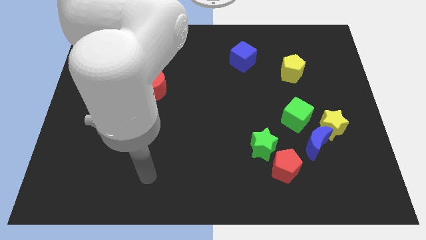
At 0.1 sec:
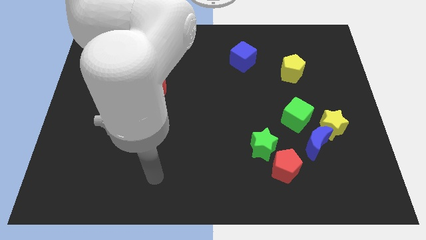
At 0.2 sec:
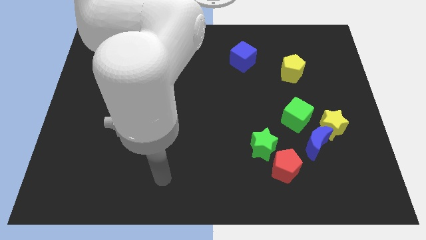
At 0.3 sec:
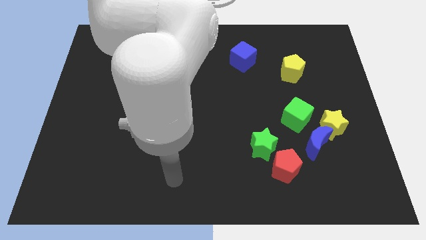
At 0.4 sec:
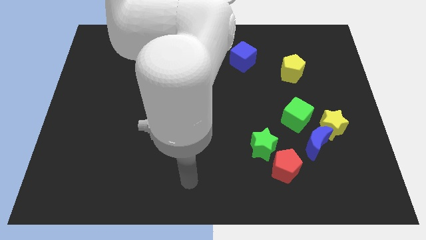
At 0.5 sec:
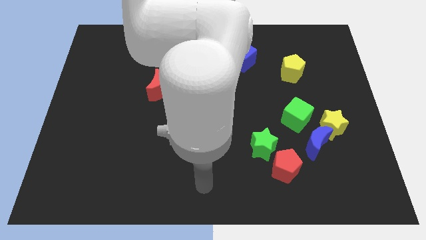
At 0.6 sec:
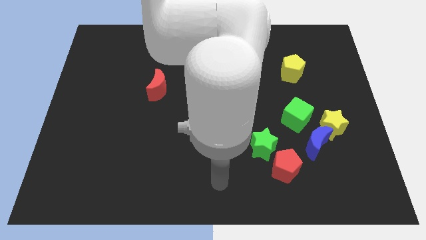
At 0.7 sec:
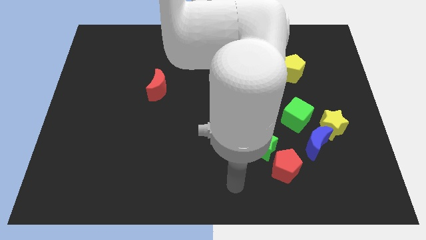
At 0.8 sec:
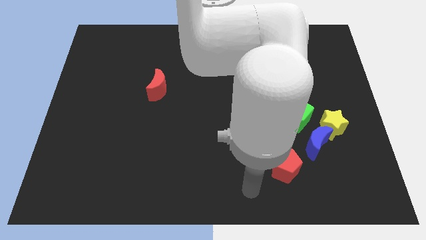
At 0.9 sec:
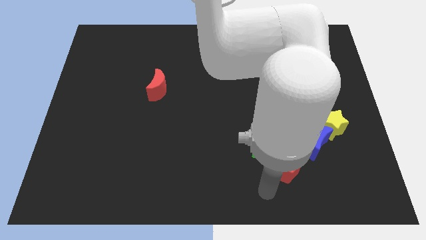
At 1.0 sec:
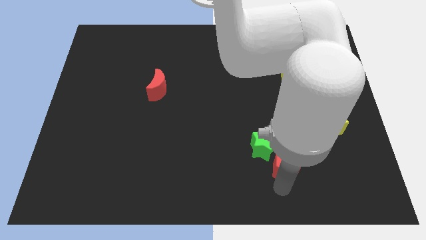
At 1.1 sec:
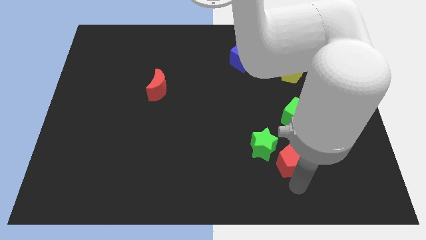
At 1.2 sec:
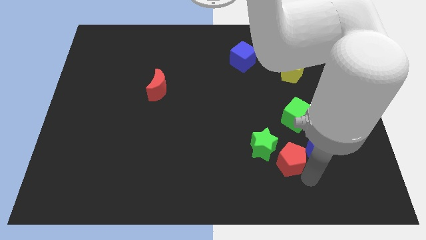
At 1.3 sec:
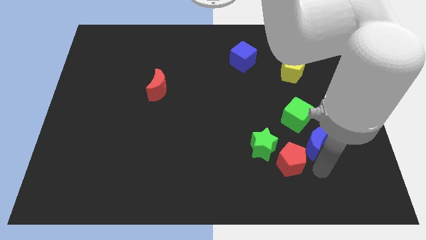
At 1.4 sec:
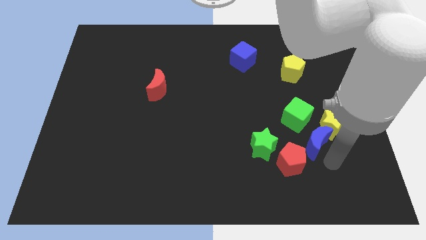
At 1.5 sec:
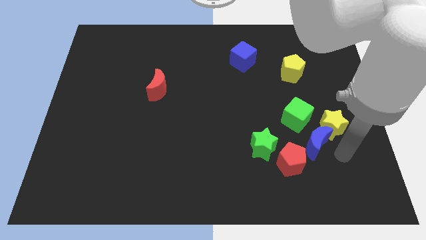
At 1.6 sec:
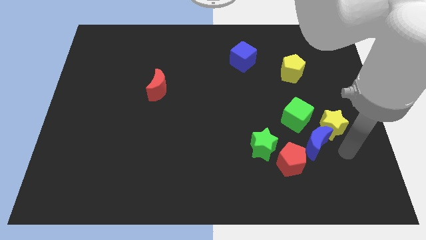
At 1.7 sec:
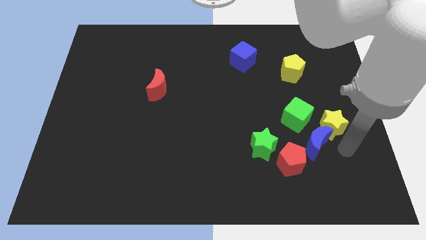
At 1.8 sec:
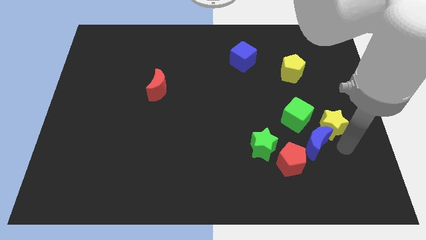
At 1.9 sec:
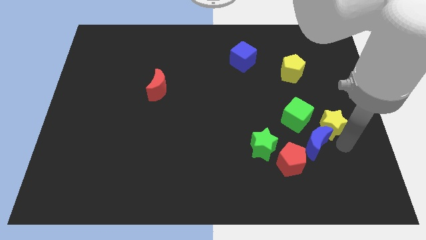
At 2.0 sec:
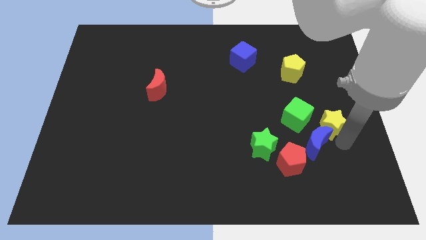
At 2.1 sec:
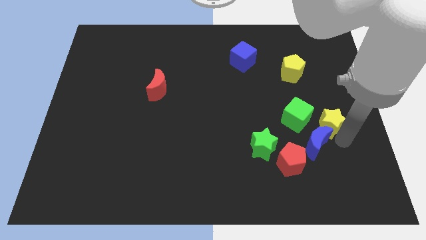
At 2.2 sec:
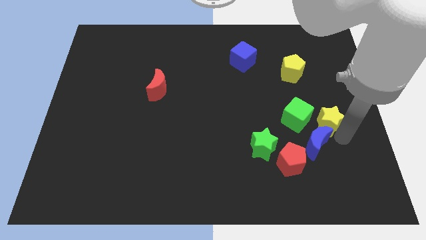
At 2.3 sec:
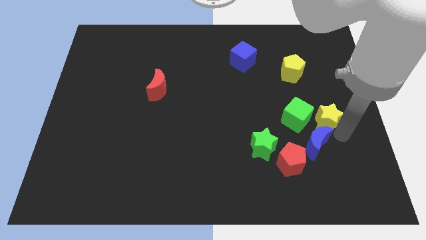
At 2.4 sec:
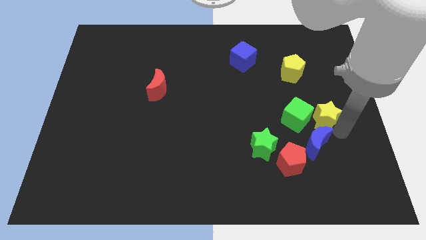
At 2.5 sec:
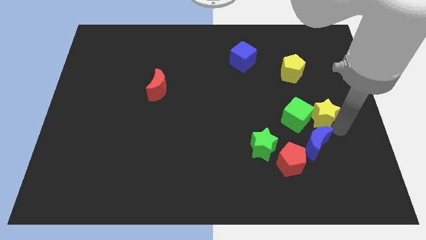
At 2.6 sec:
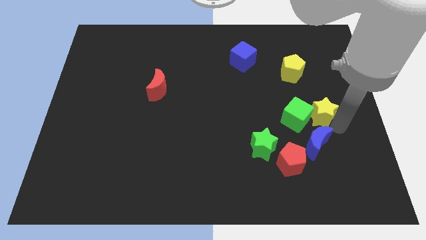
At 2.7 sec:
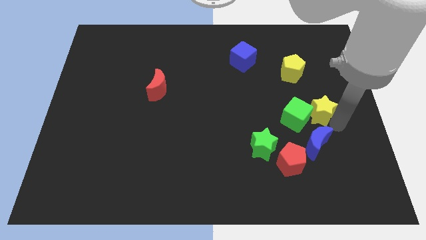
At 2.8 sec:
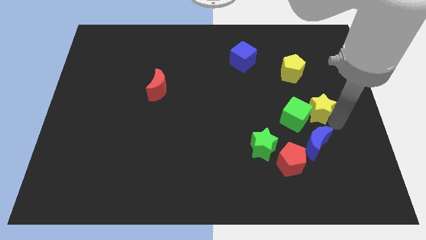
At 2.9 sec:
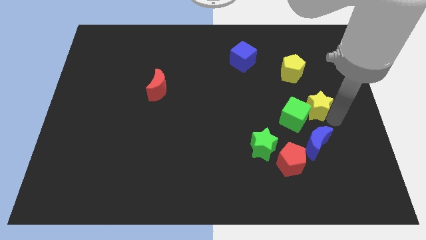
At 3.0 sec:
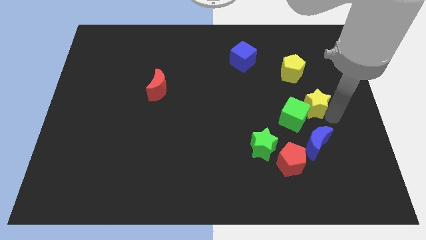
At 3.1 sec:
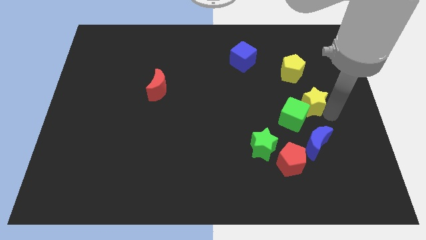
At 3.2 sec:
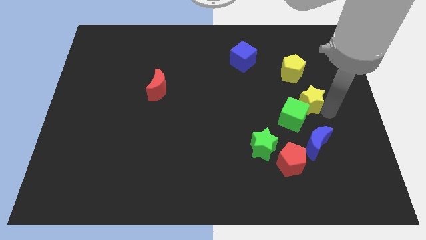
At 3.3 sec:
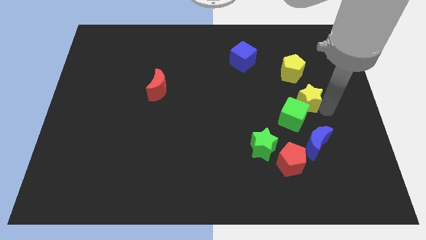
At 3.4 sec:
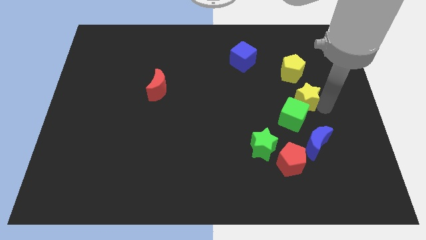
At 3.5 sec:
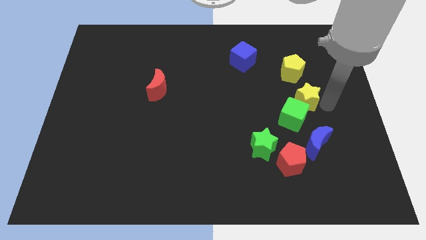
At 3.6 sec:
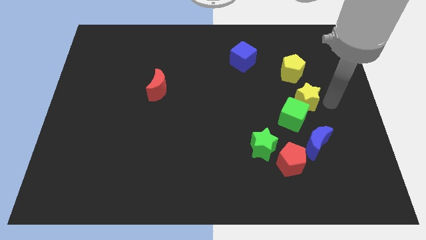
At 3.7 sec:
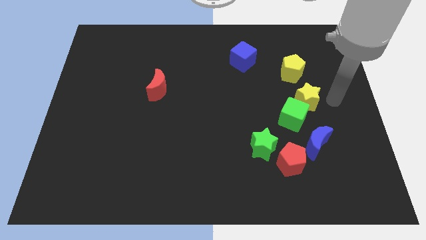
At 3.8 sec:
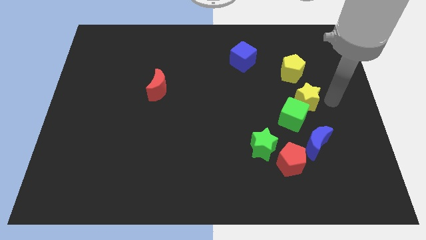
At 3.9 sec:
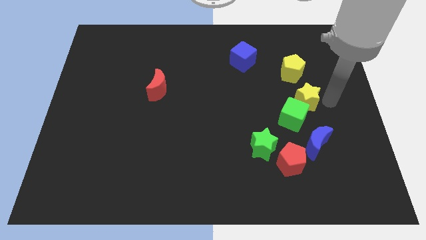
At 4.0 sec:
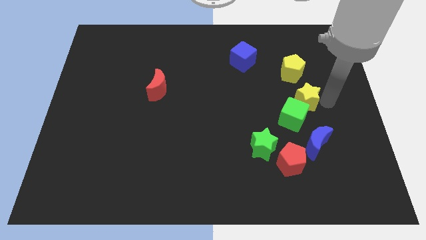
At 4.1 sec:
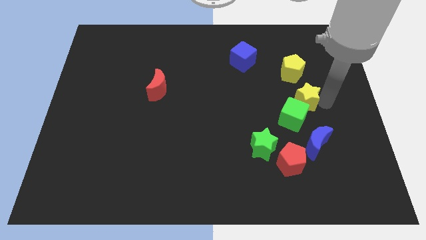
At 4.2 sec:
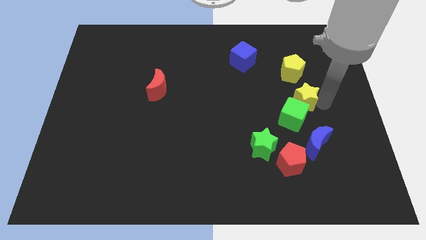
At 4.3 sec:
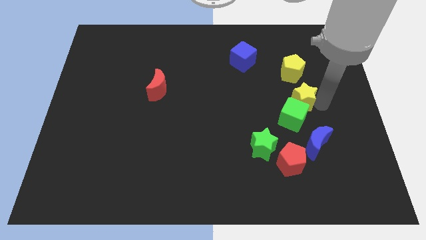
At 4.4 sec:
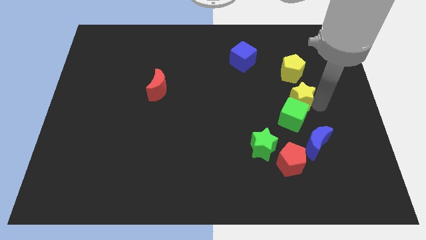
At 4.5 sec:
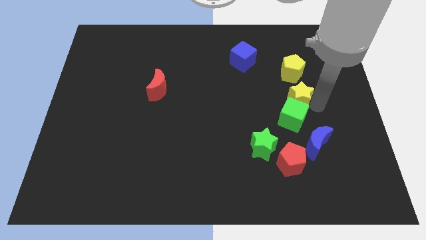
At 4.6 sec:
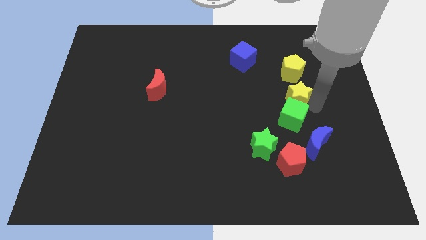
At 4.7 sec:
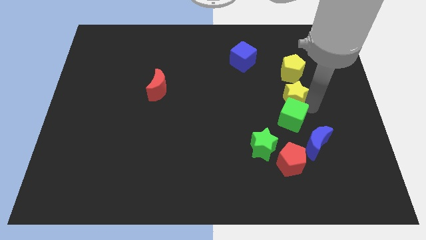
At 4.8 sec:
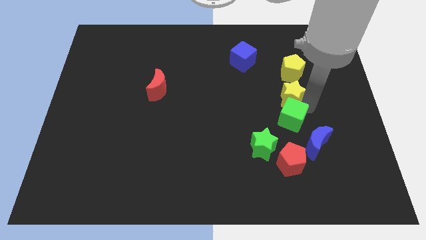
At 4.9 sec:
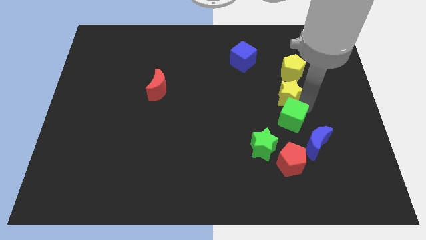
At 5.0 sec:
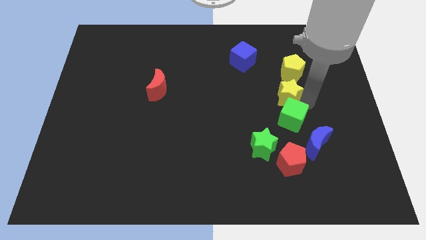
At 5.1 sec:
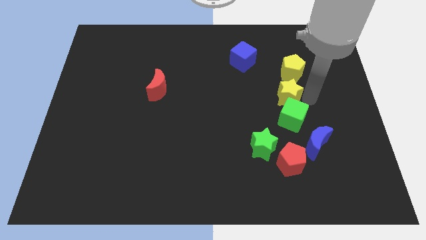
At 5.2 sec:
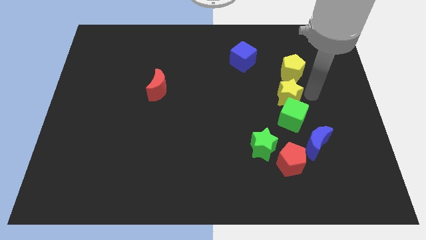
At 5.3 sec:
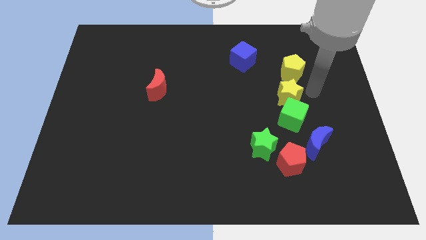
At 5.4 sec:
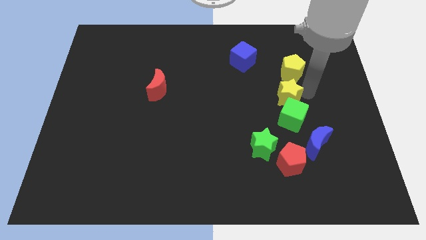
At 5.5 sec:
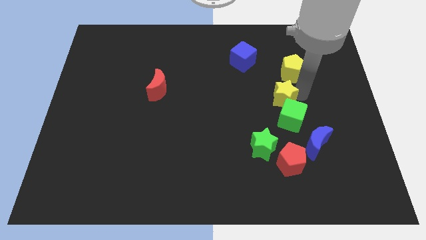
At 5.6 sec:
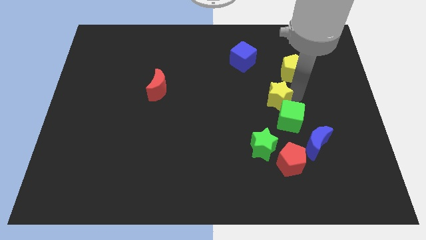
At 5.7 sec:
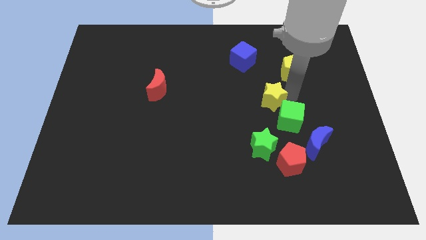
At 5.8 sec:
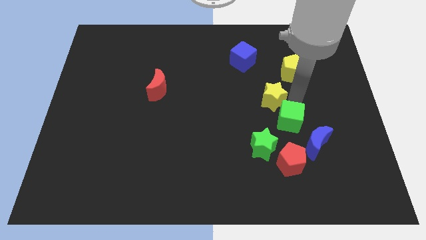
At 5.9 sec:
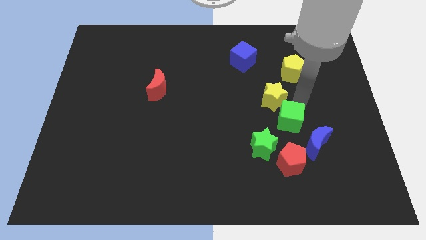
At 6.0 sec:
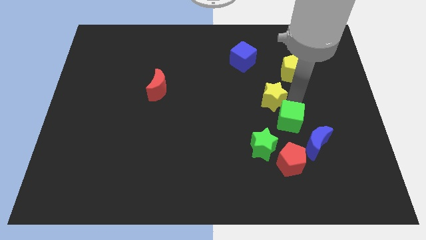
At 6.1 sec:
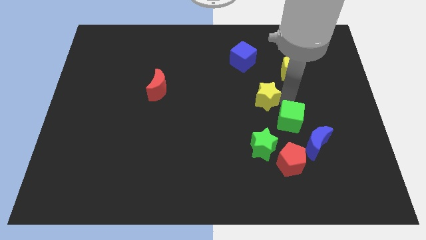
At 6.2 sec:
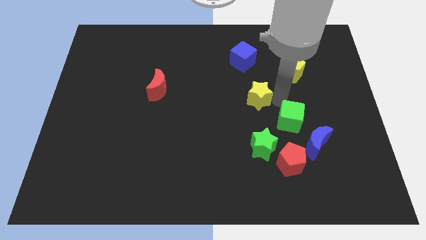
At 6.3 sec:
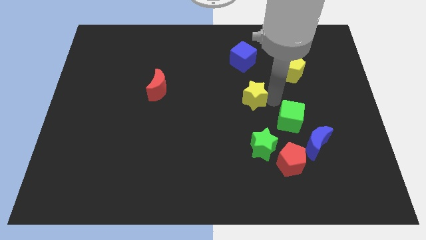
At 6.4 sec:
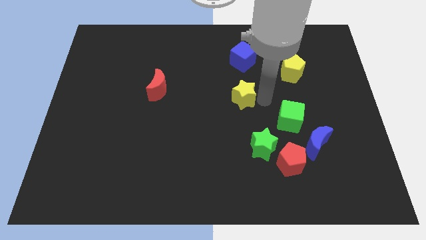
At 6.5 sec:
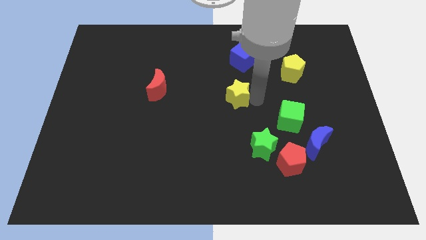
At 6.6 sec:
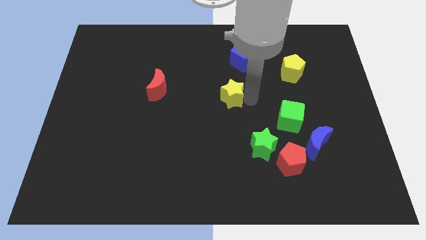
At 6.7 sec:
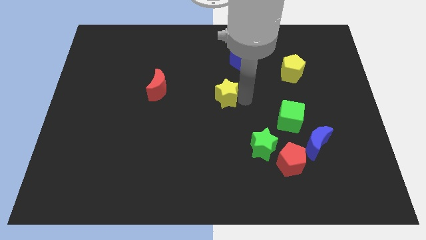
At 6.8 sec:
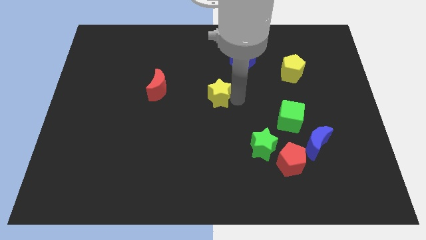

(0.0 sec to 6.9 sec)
push the yellow star to the right of the red moon

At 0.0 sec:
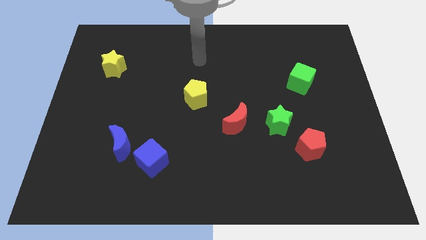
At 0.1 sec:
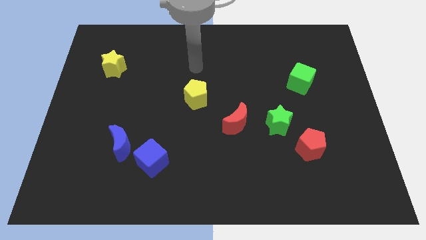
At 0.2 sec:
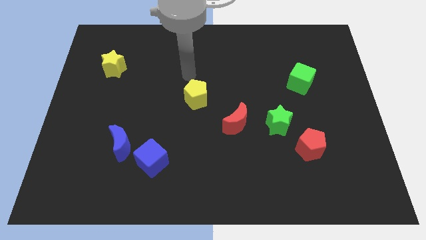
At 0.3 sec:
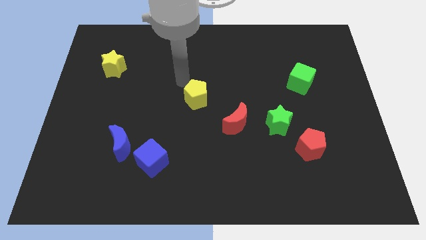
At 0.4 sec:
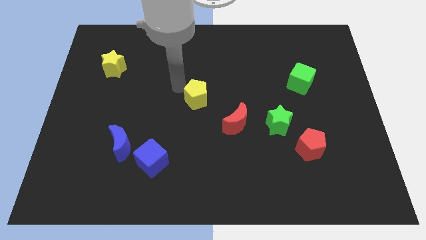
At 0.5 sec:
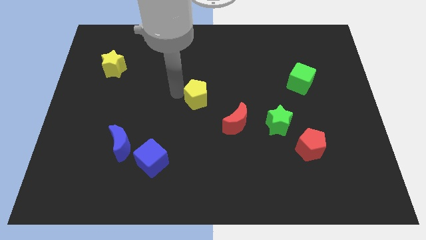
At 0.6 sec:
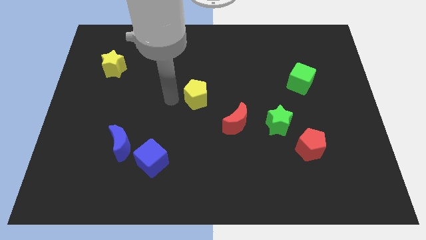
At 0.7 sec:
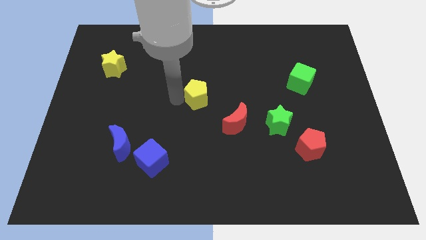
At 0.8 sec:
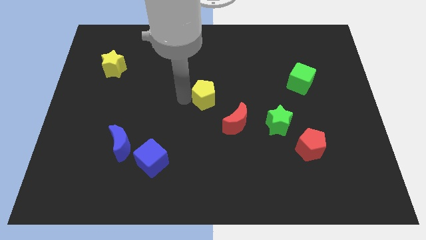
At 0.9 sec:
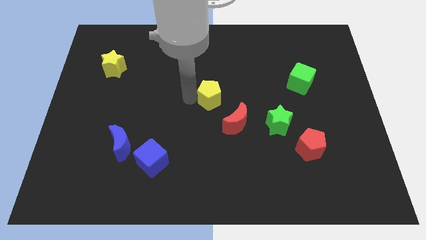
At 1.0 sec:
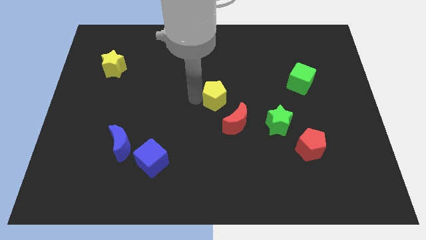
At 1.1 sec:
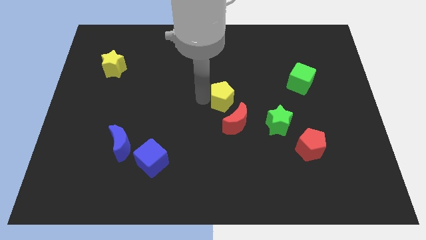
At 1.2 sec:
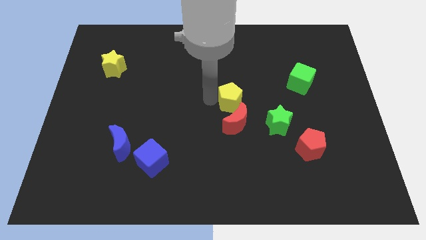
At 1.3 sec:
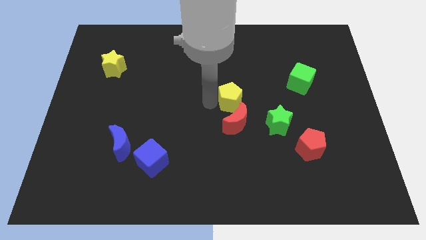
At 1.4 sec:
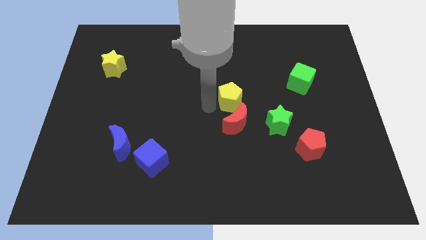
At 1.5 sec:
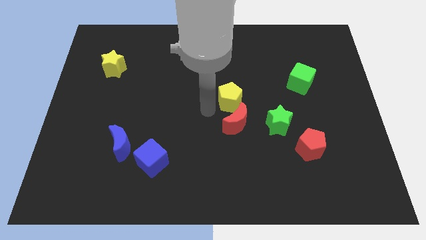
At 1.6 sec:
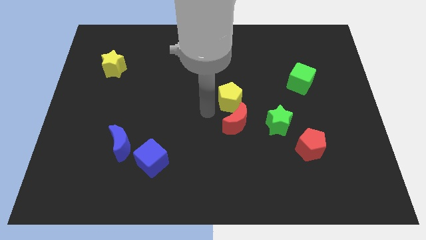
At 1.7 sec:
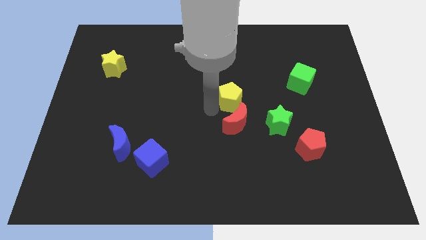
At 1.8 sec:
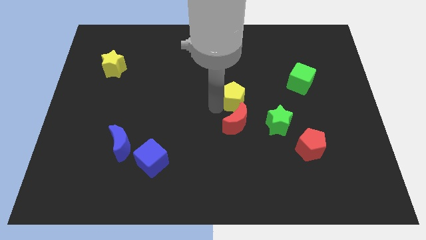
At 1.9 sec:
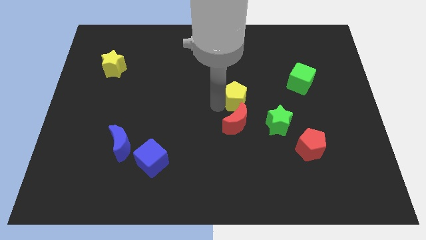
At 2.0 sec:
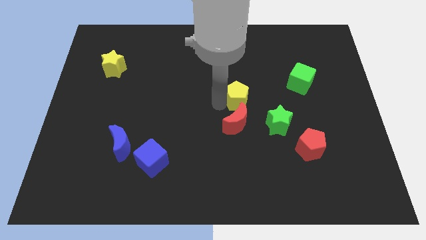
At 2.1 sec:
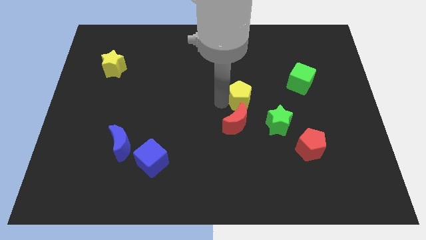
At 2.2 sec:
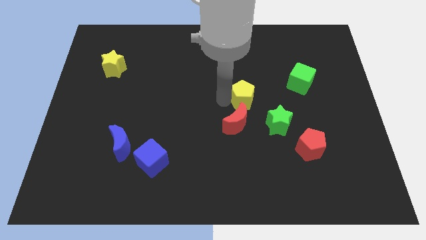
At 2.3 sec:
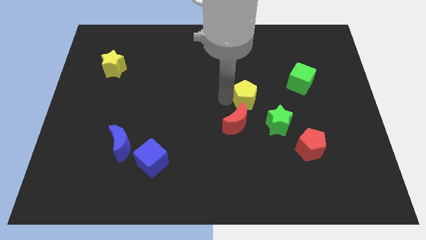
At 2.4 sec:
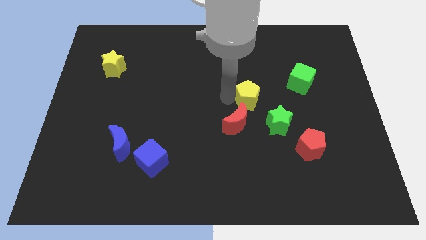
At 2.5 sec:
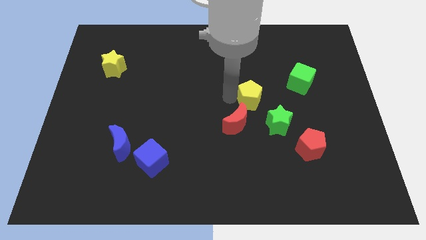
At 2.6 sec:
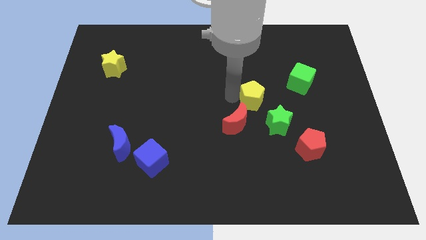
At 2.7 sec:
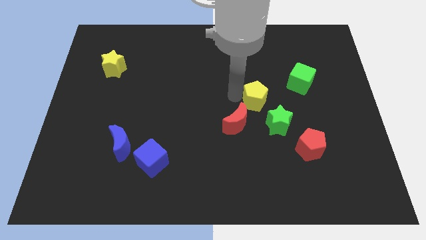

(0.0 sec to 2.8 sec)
slide the yellow pentagon to the top of the green star
